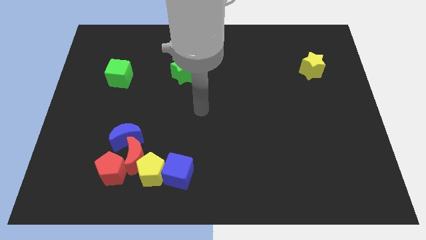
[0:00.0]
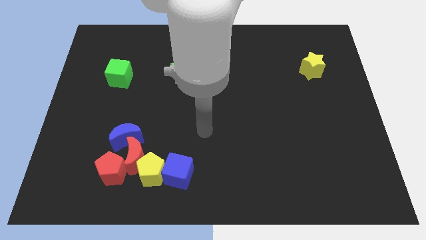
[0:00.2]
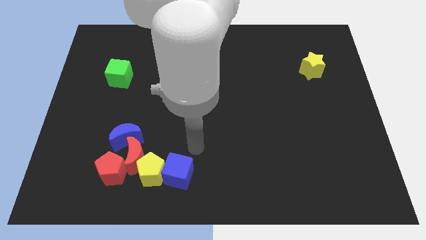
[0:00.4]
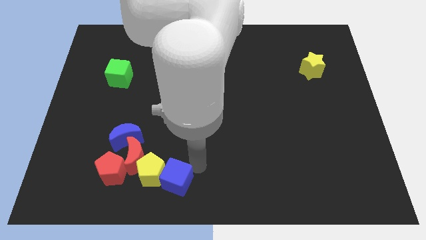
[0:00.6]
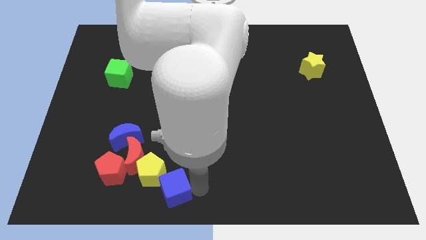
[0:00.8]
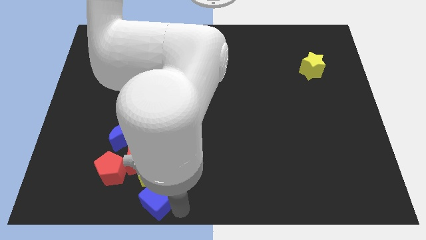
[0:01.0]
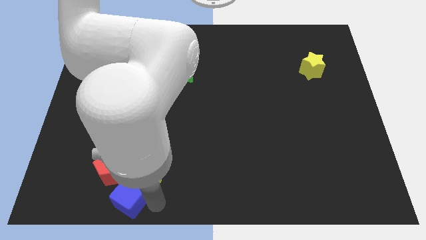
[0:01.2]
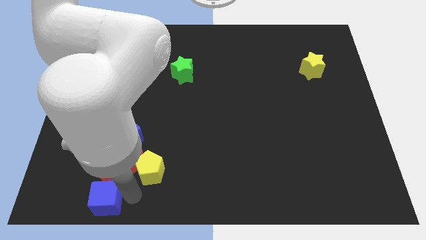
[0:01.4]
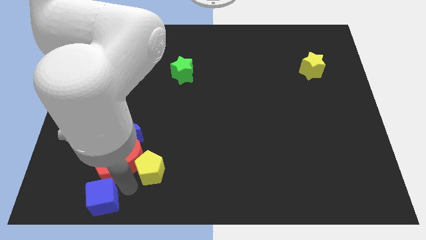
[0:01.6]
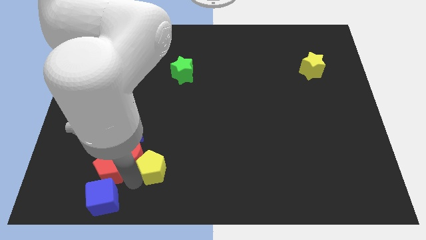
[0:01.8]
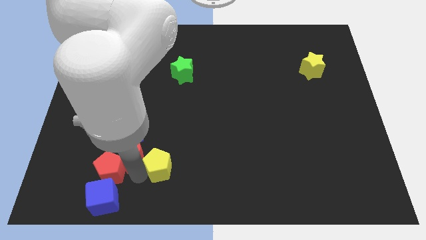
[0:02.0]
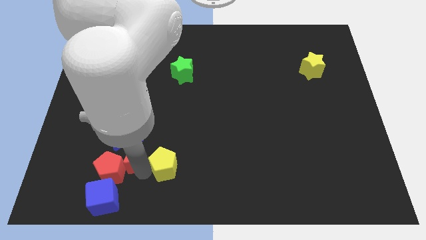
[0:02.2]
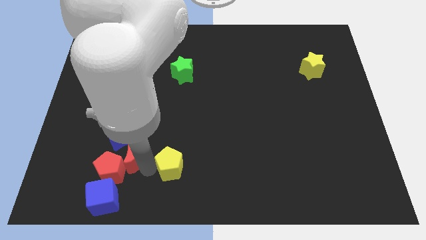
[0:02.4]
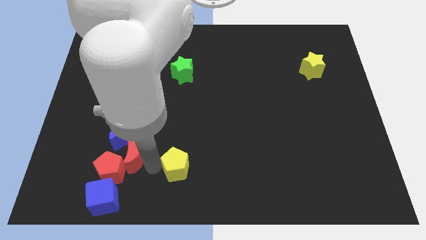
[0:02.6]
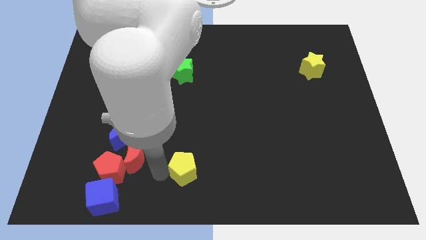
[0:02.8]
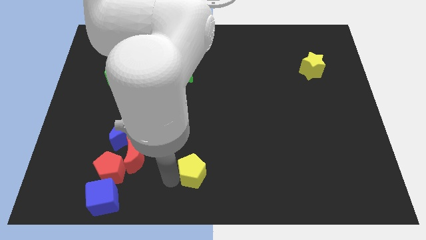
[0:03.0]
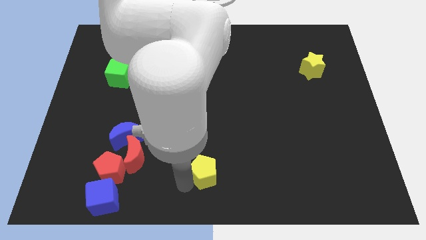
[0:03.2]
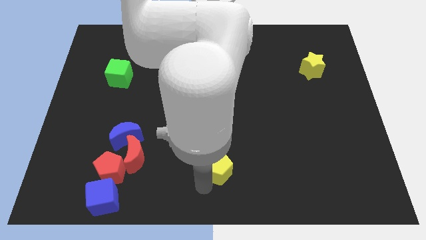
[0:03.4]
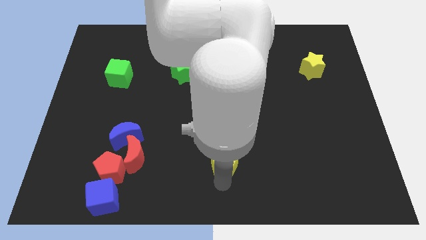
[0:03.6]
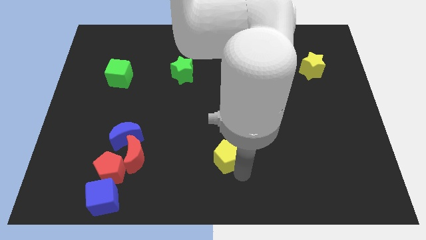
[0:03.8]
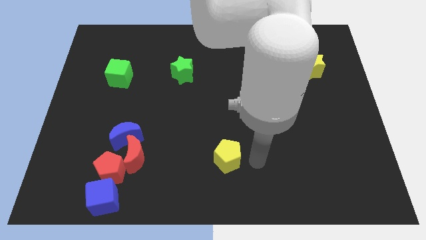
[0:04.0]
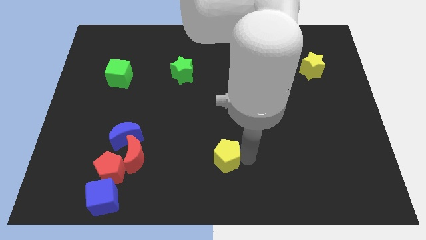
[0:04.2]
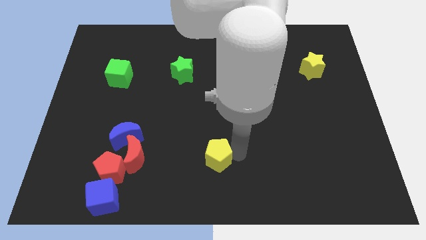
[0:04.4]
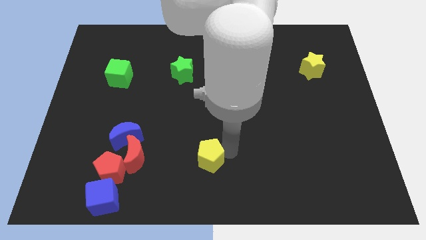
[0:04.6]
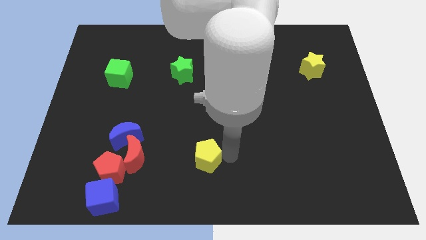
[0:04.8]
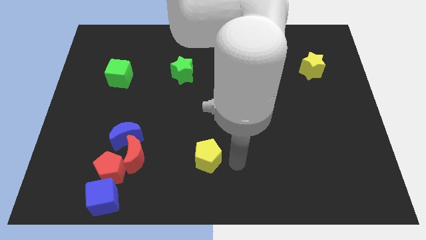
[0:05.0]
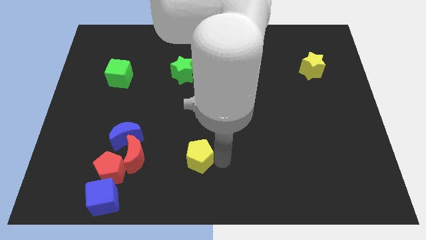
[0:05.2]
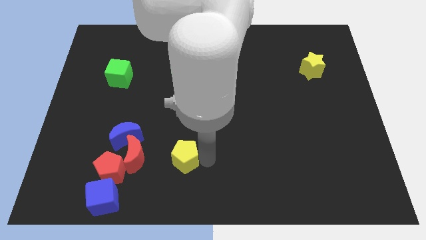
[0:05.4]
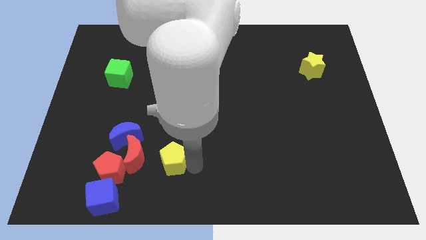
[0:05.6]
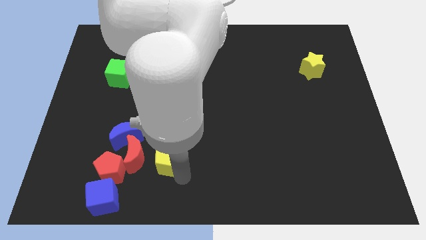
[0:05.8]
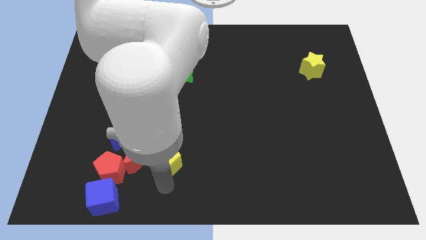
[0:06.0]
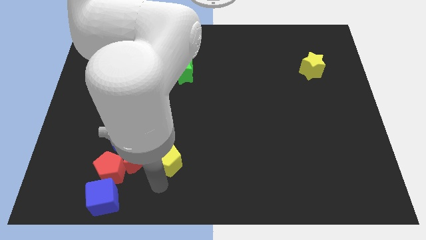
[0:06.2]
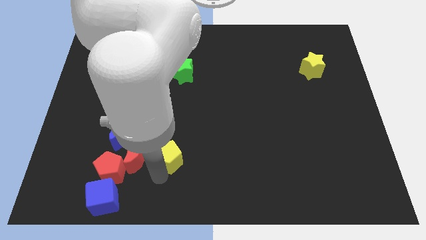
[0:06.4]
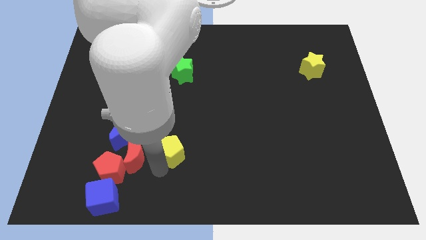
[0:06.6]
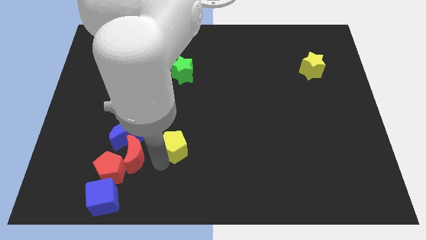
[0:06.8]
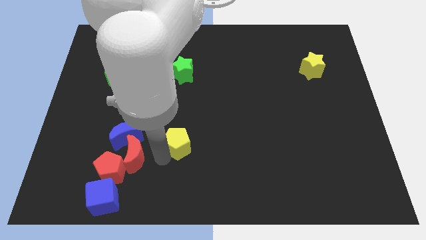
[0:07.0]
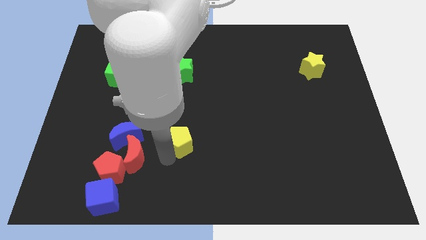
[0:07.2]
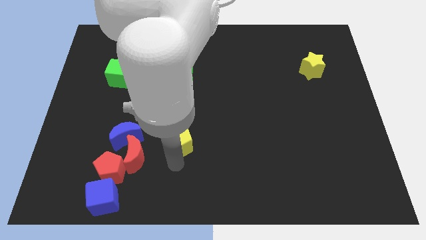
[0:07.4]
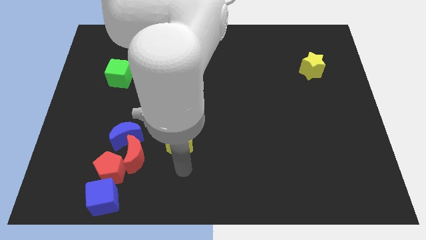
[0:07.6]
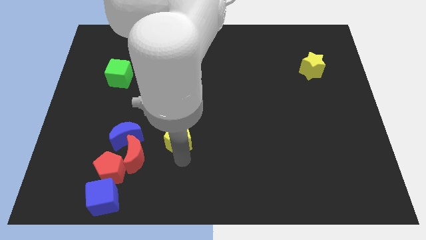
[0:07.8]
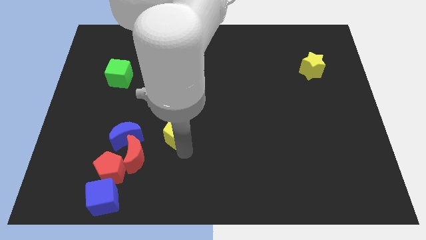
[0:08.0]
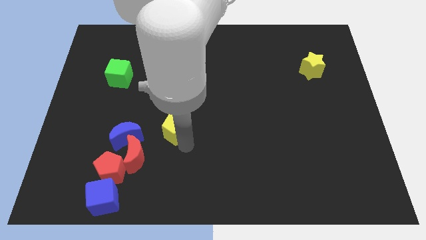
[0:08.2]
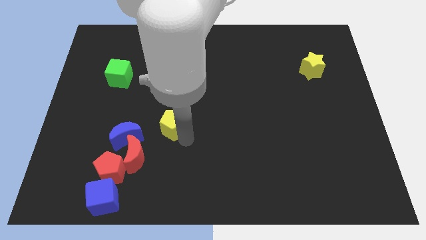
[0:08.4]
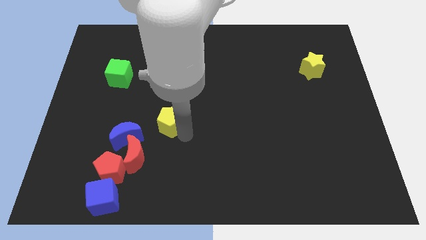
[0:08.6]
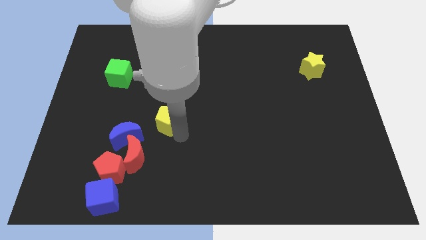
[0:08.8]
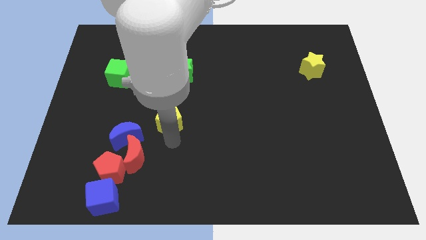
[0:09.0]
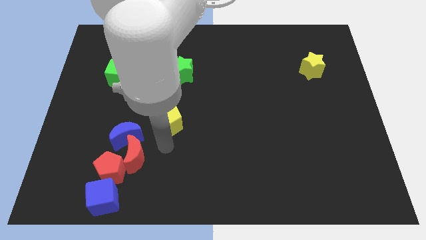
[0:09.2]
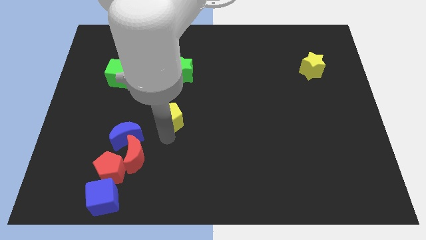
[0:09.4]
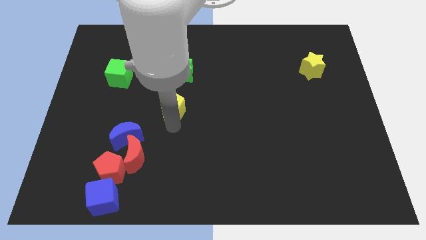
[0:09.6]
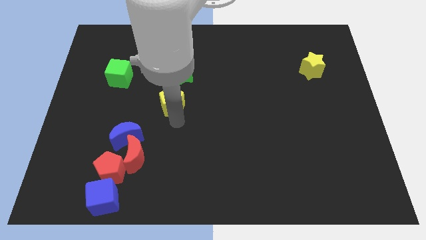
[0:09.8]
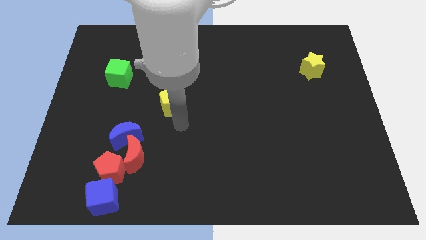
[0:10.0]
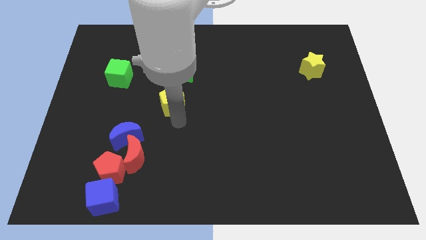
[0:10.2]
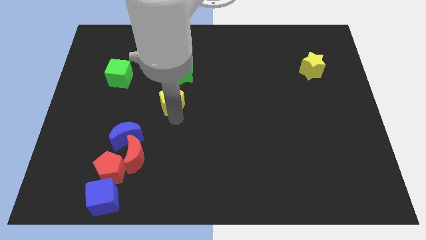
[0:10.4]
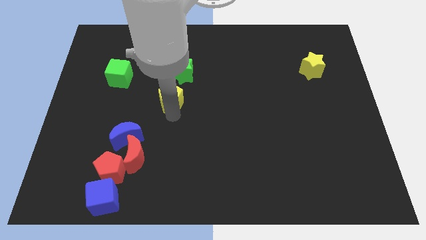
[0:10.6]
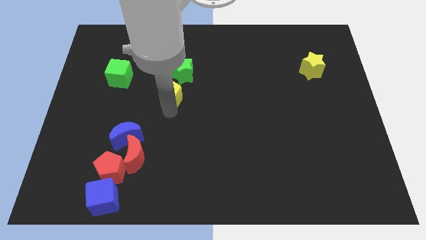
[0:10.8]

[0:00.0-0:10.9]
move the yellow pentagon up

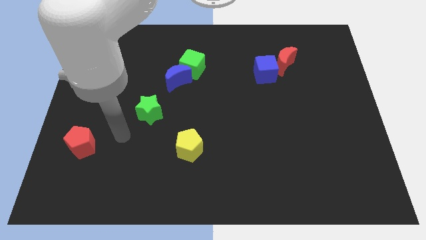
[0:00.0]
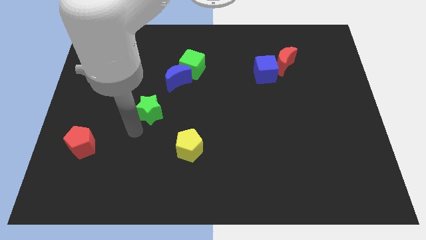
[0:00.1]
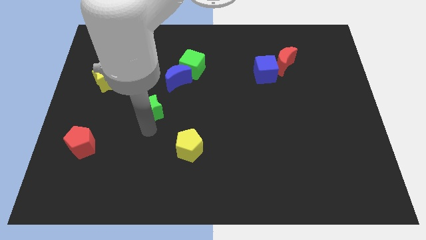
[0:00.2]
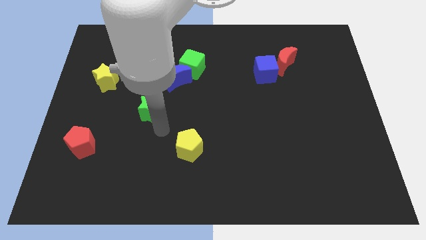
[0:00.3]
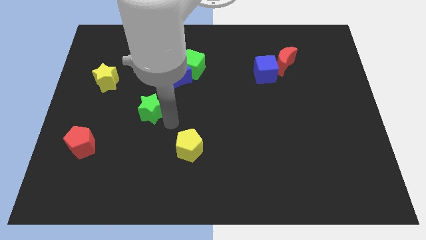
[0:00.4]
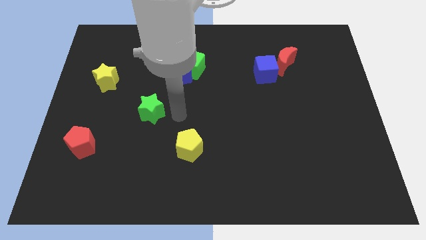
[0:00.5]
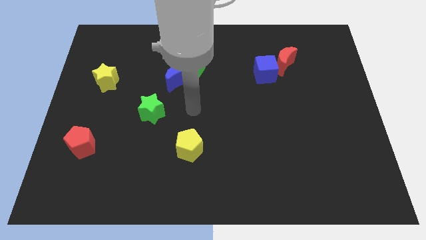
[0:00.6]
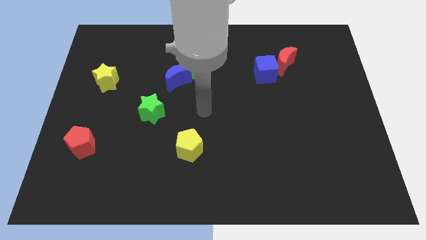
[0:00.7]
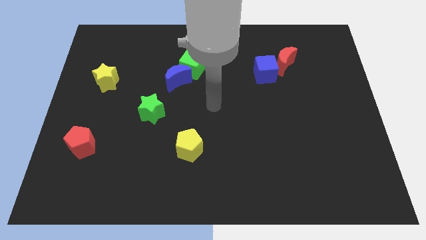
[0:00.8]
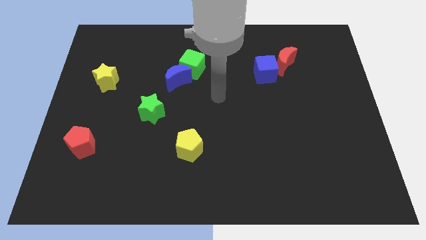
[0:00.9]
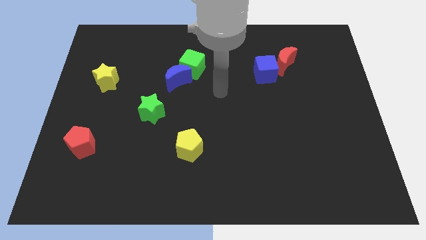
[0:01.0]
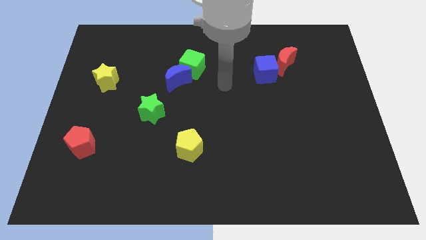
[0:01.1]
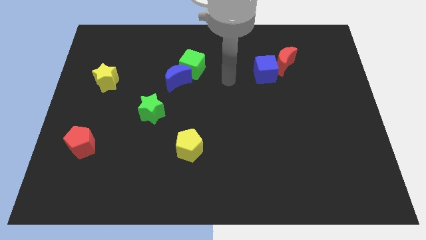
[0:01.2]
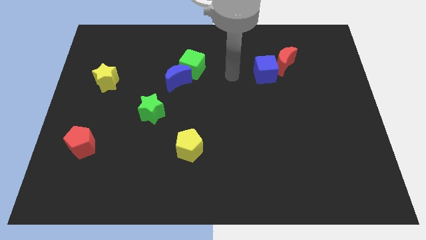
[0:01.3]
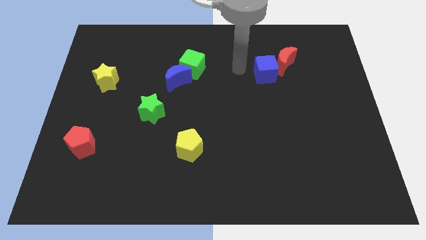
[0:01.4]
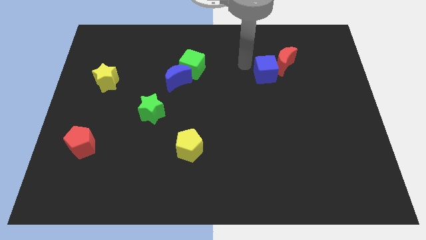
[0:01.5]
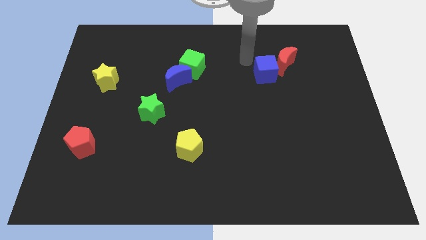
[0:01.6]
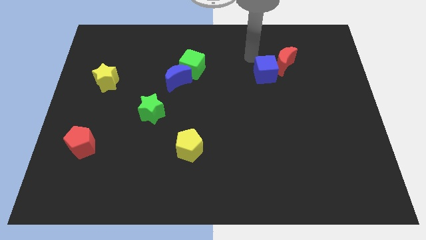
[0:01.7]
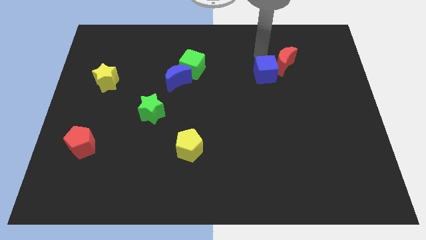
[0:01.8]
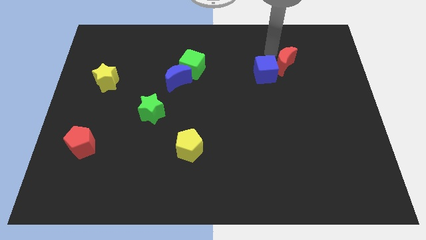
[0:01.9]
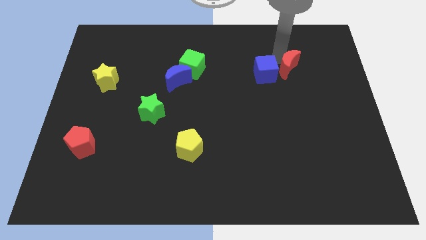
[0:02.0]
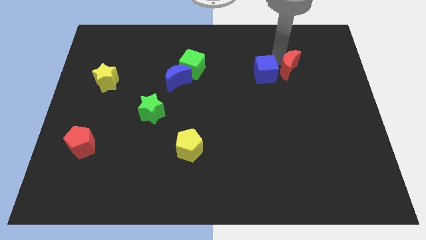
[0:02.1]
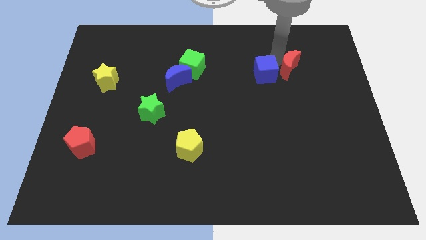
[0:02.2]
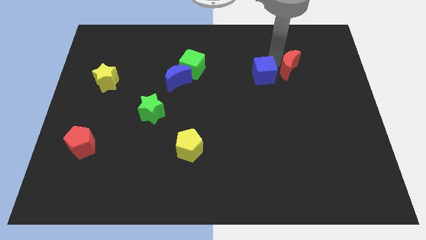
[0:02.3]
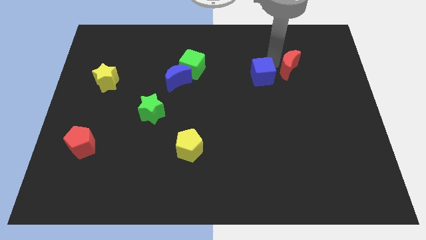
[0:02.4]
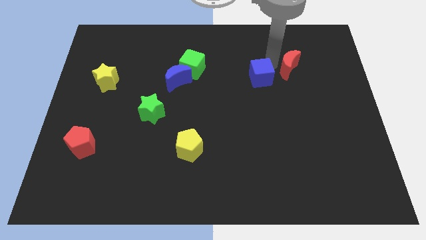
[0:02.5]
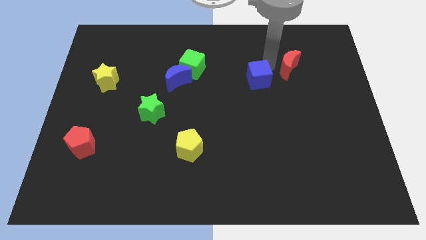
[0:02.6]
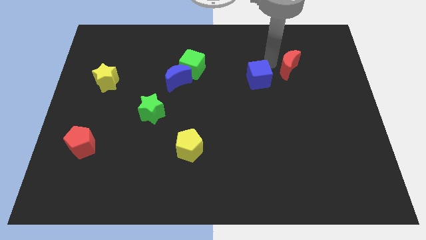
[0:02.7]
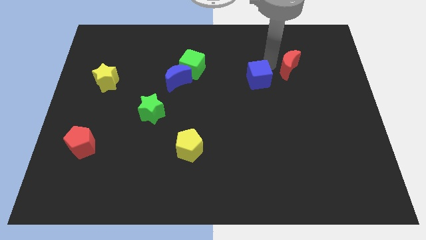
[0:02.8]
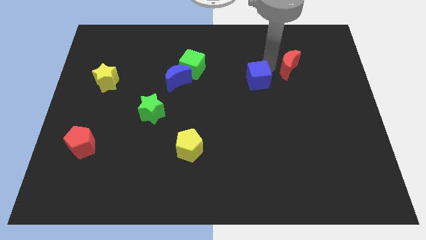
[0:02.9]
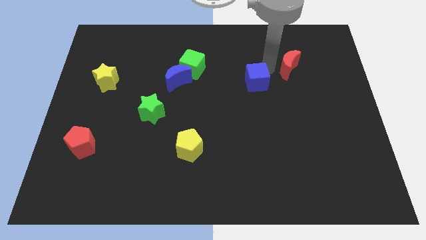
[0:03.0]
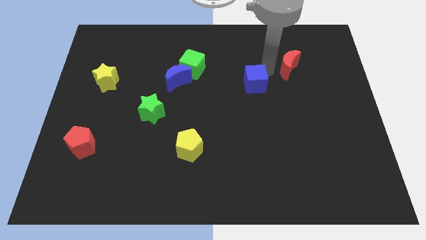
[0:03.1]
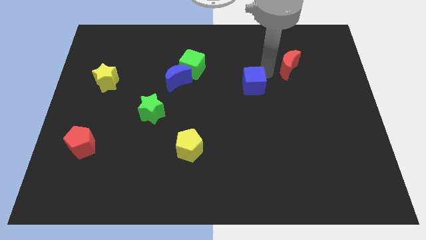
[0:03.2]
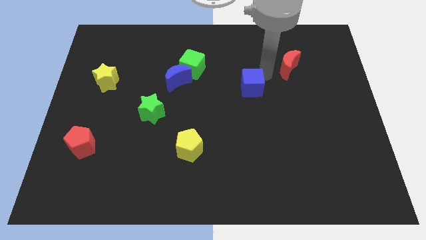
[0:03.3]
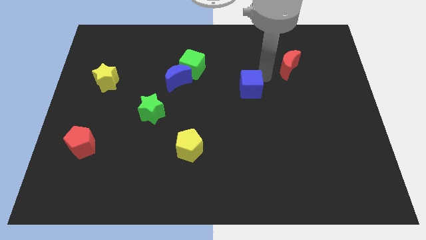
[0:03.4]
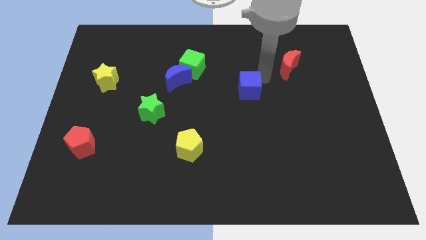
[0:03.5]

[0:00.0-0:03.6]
slightly slide the blue cube downwards and left diagonally
